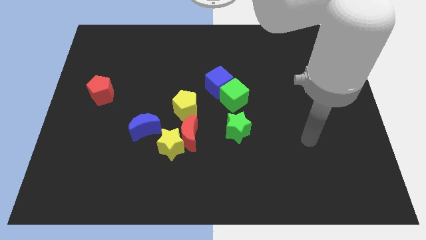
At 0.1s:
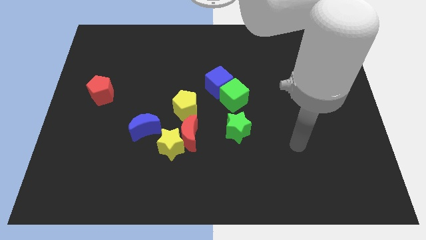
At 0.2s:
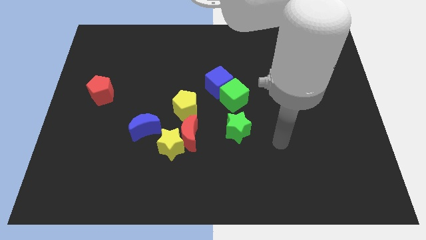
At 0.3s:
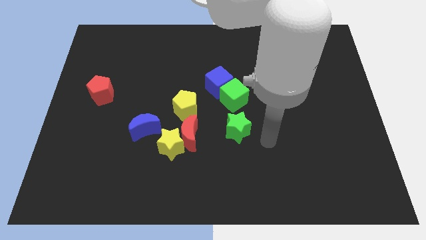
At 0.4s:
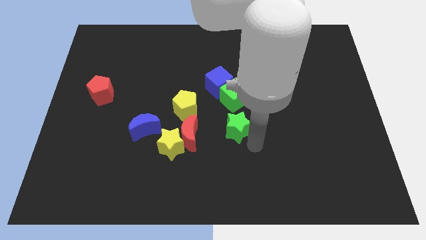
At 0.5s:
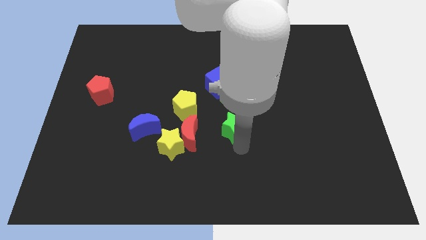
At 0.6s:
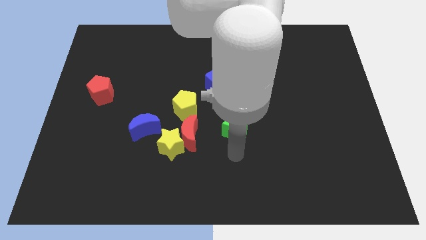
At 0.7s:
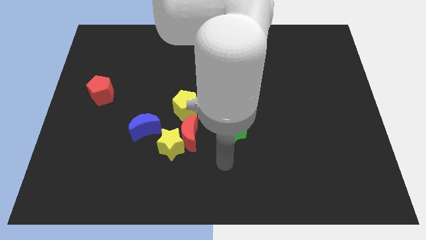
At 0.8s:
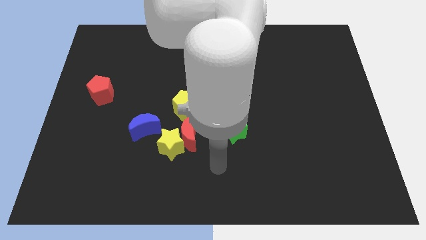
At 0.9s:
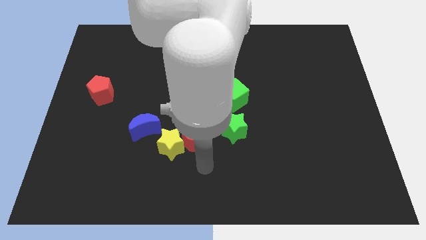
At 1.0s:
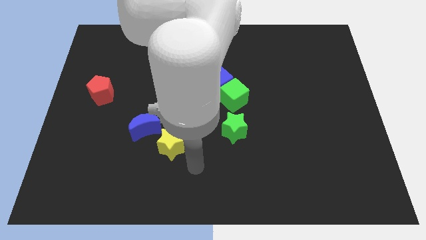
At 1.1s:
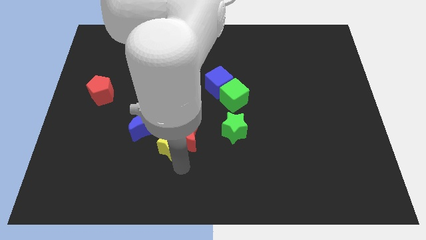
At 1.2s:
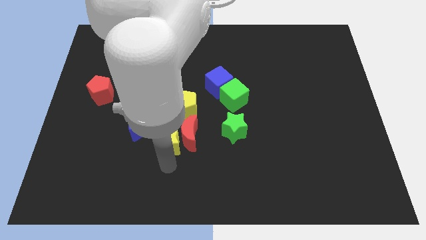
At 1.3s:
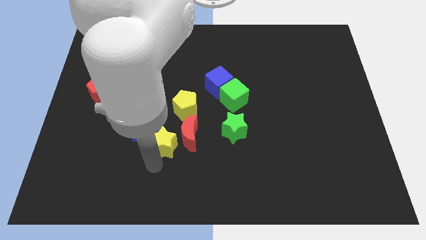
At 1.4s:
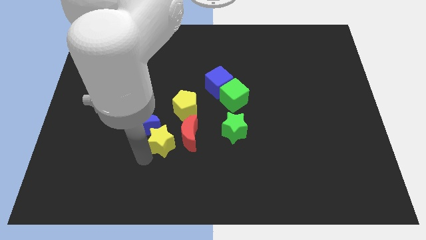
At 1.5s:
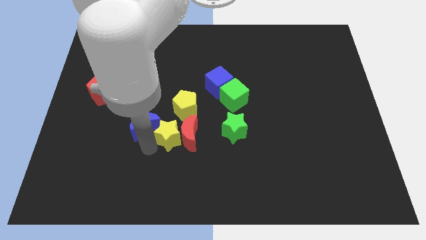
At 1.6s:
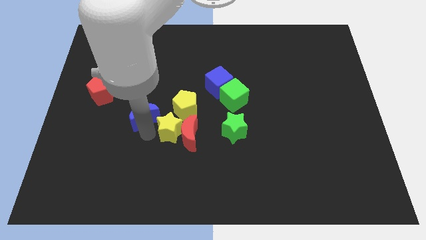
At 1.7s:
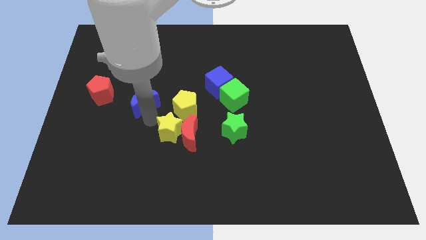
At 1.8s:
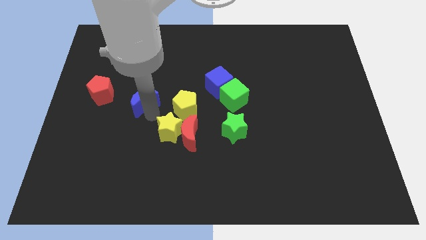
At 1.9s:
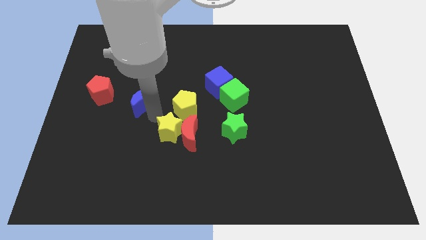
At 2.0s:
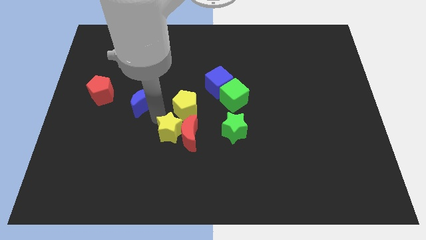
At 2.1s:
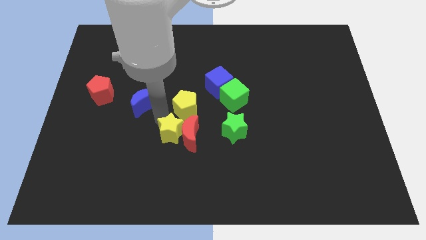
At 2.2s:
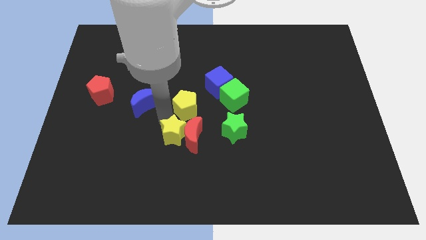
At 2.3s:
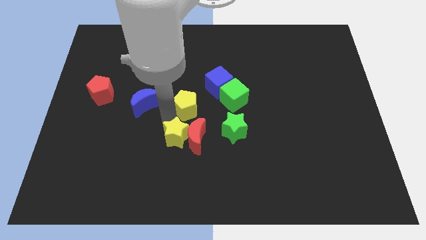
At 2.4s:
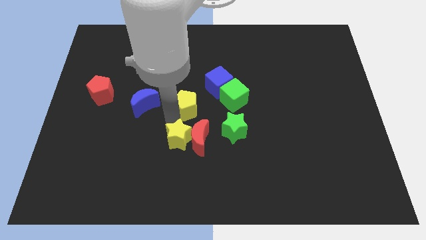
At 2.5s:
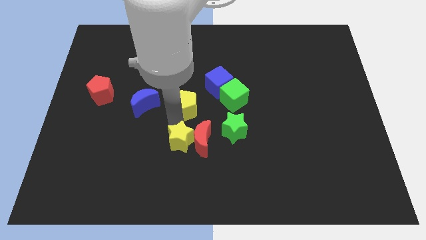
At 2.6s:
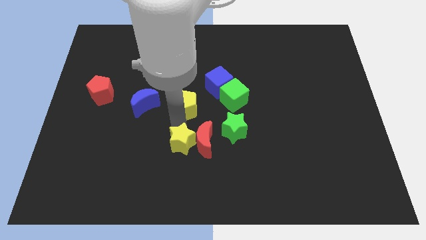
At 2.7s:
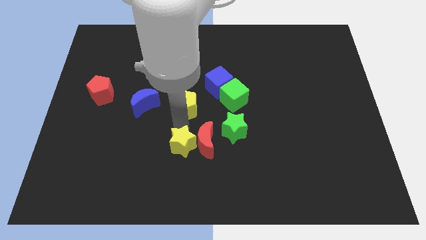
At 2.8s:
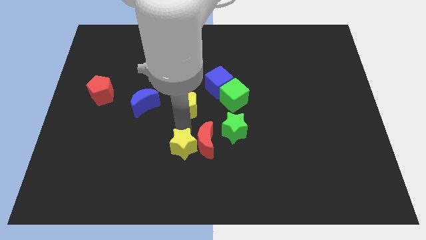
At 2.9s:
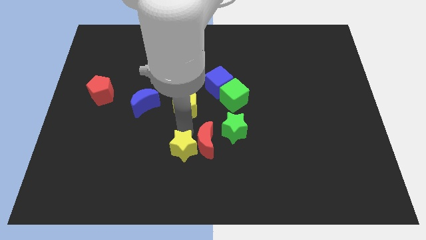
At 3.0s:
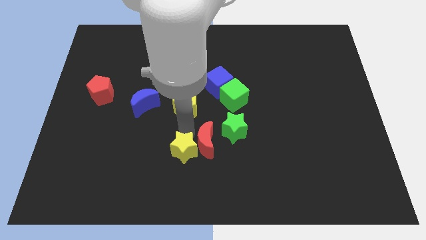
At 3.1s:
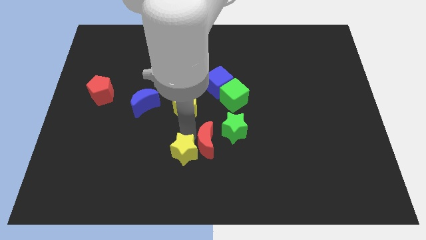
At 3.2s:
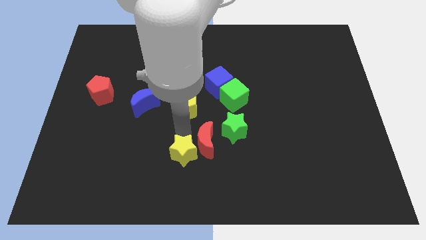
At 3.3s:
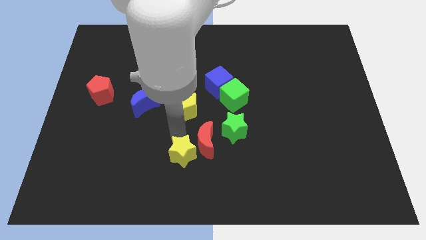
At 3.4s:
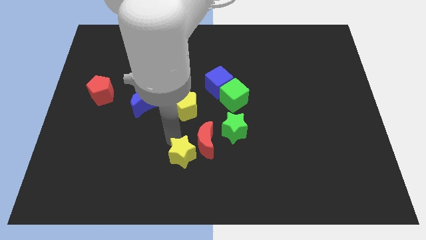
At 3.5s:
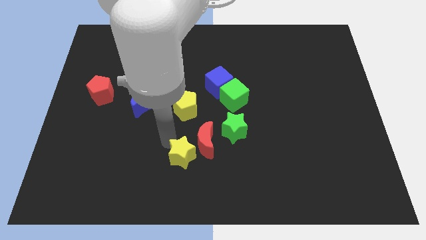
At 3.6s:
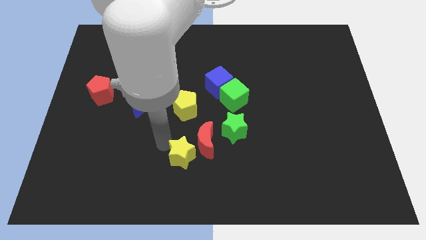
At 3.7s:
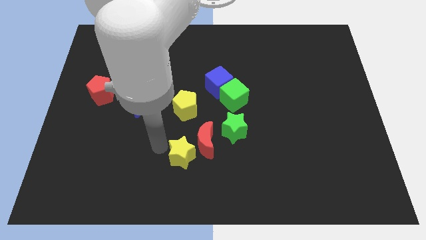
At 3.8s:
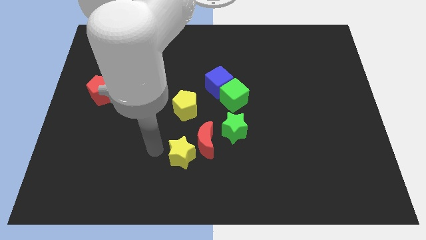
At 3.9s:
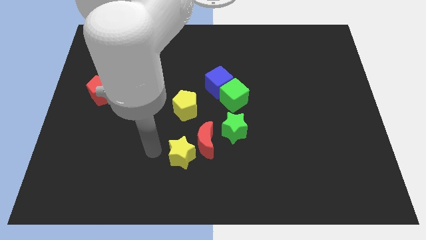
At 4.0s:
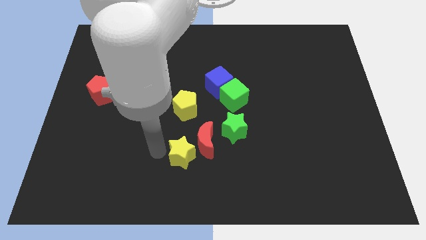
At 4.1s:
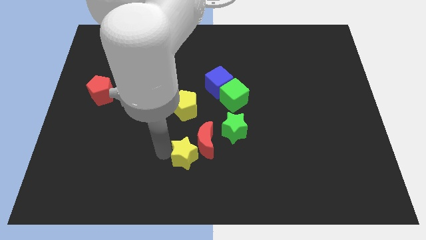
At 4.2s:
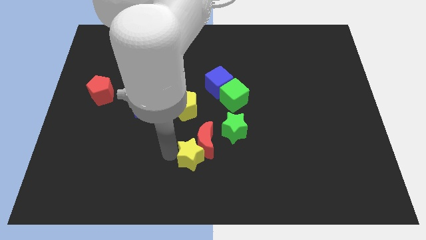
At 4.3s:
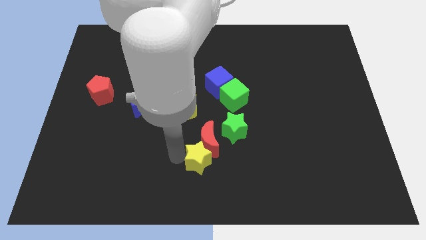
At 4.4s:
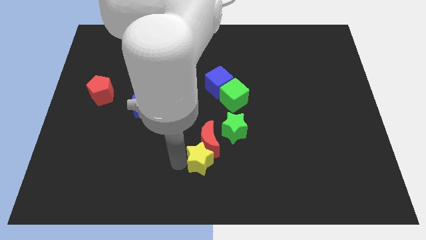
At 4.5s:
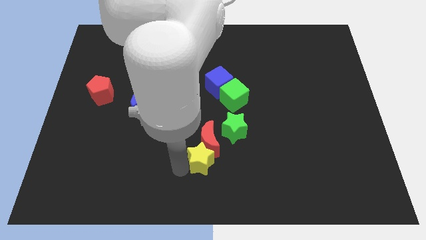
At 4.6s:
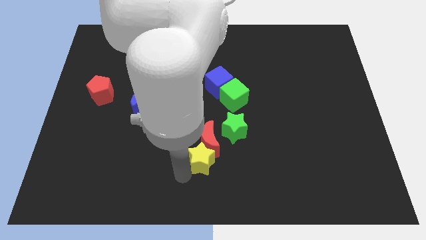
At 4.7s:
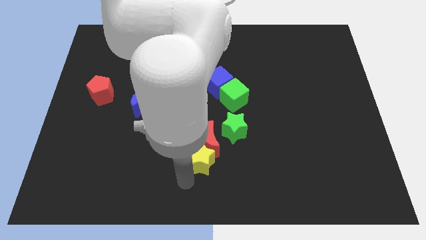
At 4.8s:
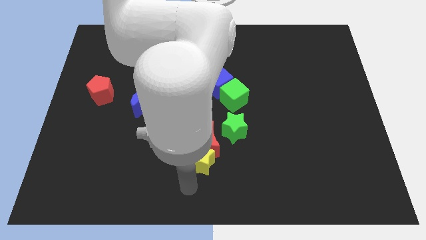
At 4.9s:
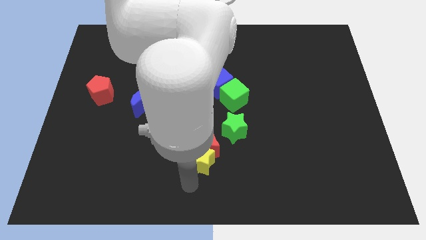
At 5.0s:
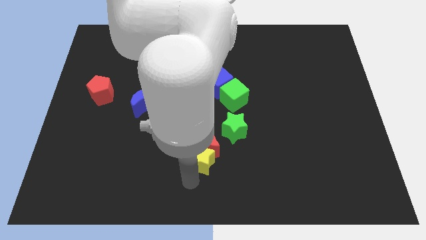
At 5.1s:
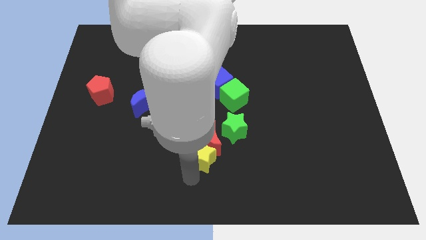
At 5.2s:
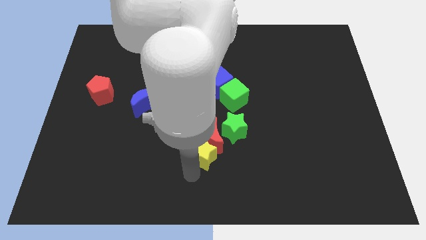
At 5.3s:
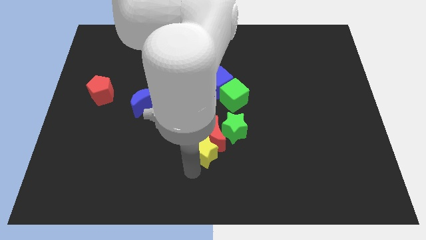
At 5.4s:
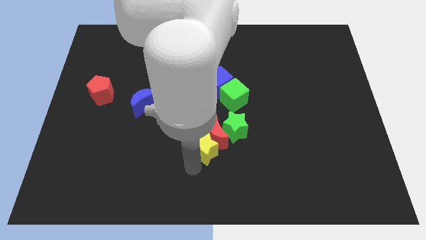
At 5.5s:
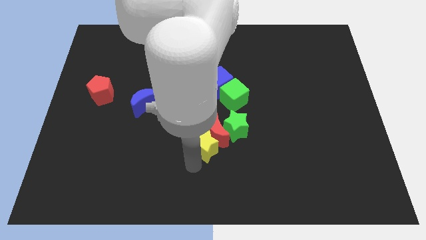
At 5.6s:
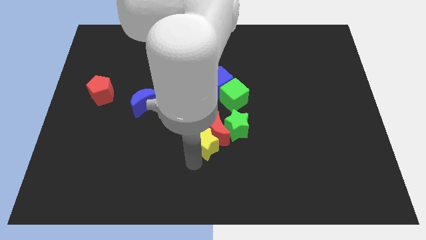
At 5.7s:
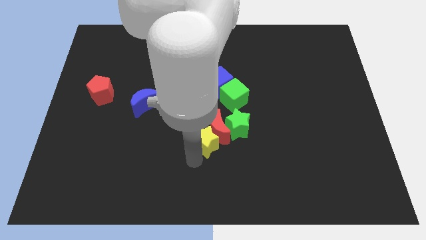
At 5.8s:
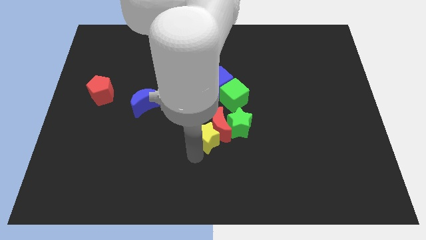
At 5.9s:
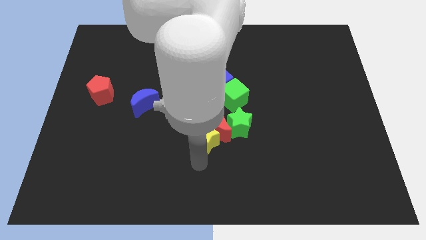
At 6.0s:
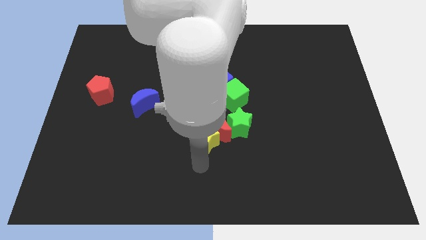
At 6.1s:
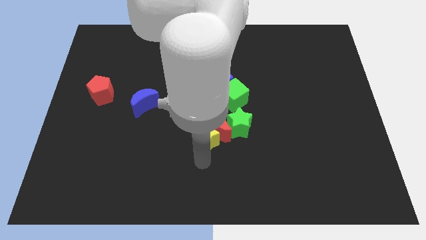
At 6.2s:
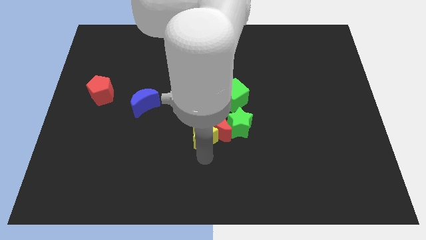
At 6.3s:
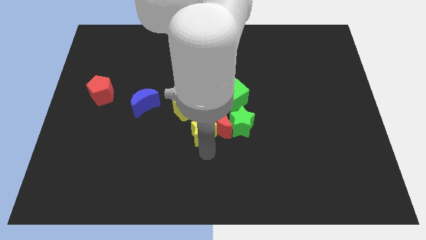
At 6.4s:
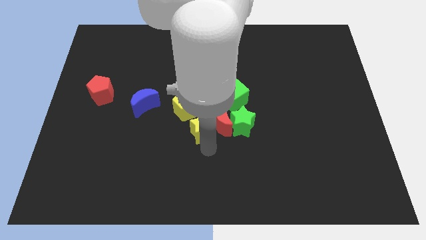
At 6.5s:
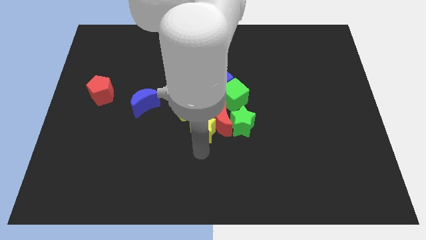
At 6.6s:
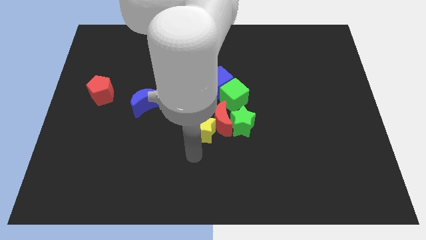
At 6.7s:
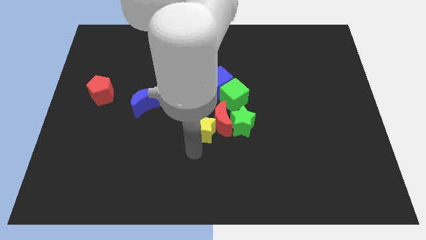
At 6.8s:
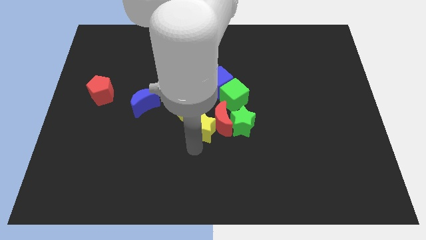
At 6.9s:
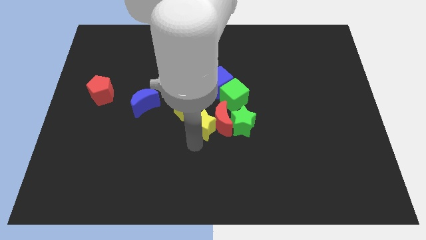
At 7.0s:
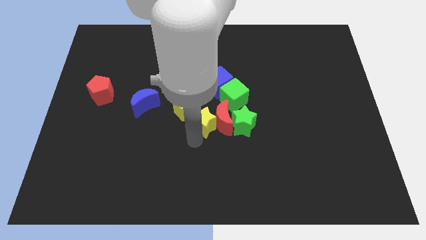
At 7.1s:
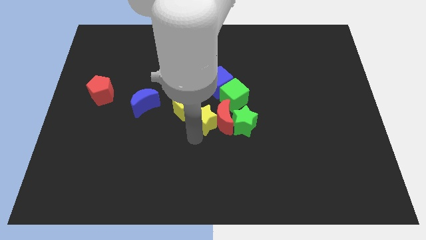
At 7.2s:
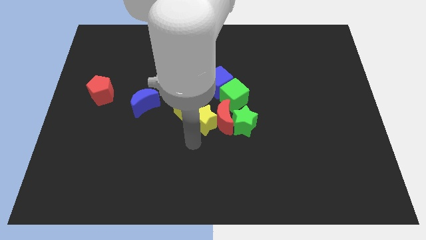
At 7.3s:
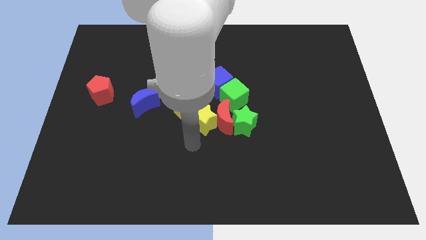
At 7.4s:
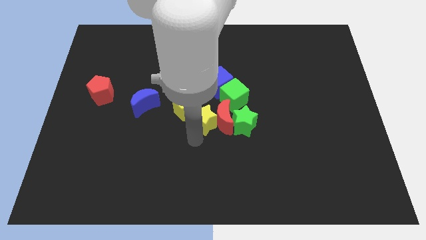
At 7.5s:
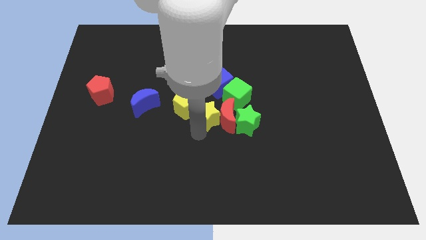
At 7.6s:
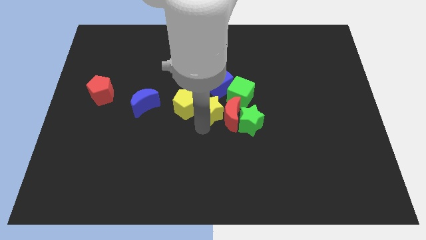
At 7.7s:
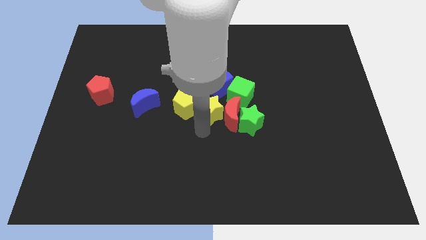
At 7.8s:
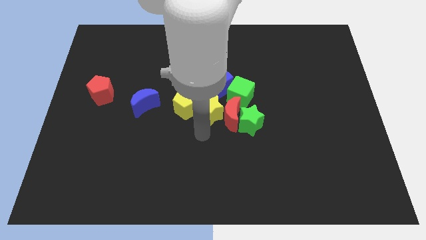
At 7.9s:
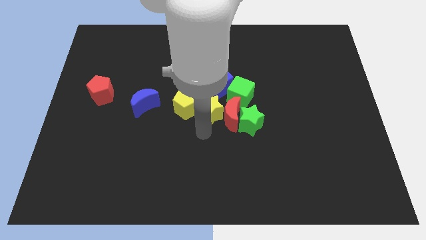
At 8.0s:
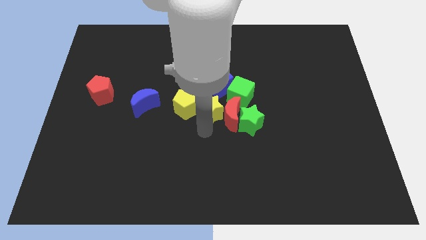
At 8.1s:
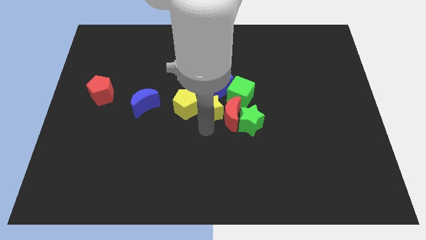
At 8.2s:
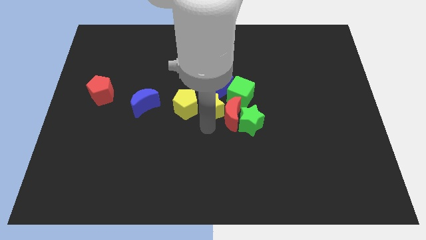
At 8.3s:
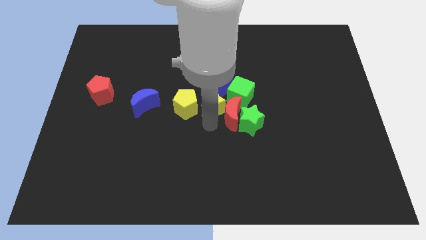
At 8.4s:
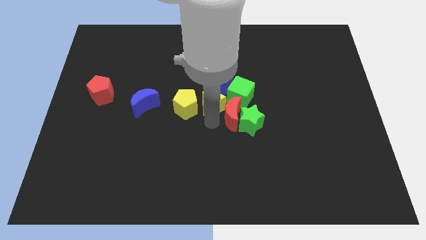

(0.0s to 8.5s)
slide the yellow star to the blue cube
